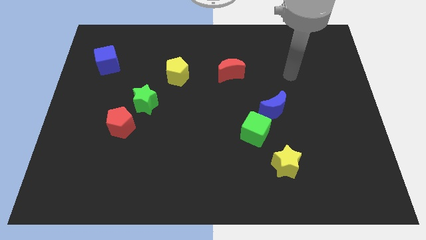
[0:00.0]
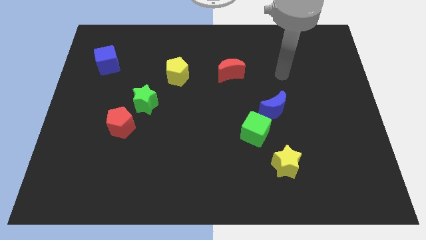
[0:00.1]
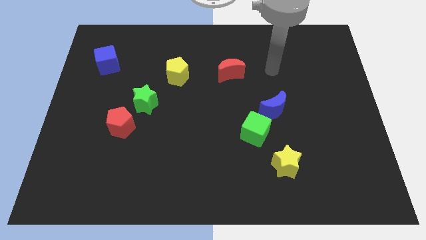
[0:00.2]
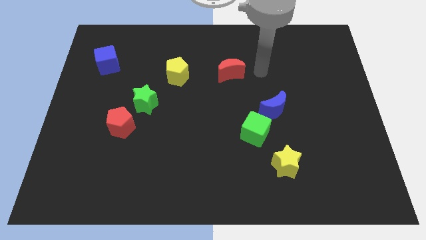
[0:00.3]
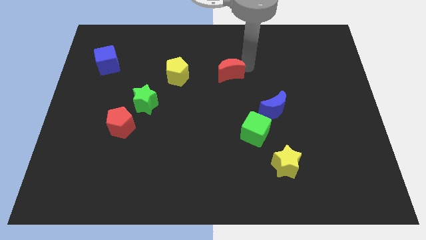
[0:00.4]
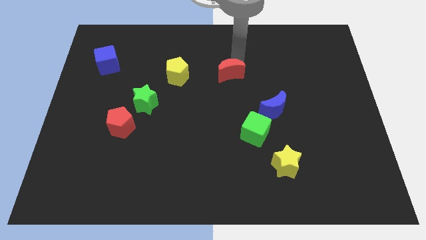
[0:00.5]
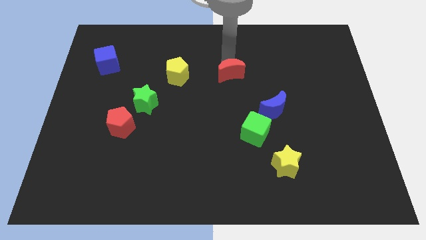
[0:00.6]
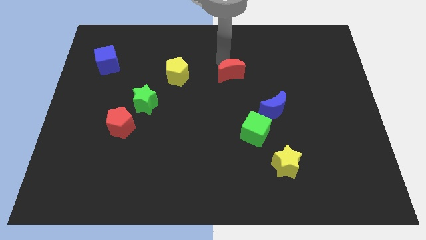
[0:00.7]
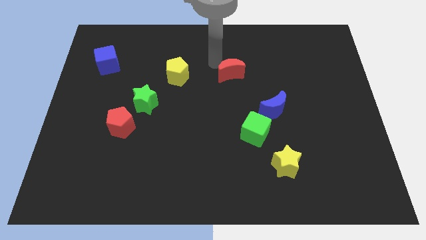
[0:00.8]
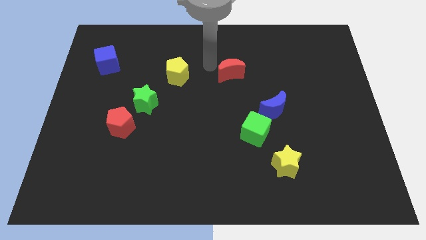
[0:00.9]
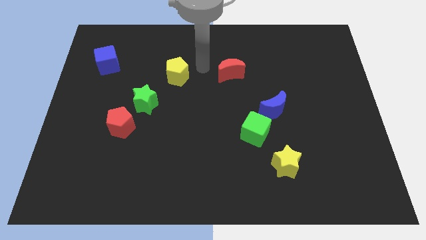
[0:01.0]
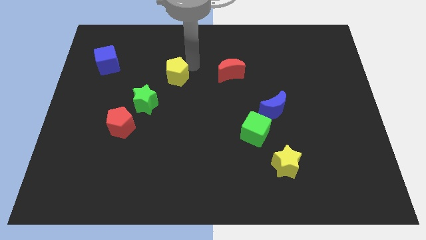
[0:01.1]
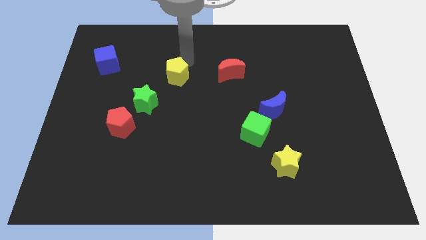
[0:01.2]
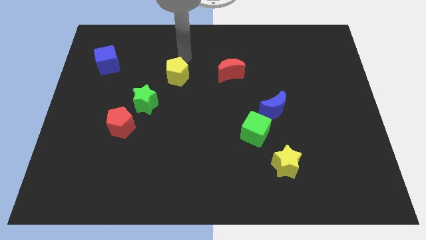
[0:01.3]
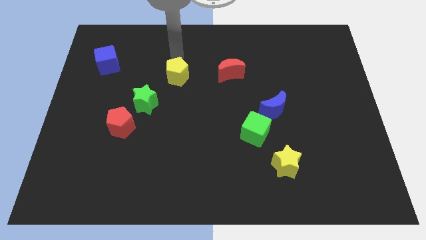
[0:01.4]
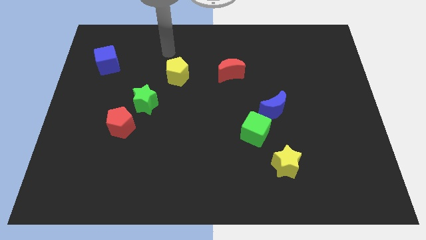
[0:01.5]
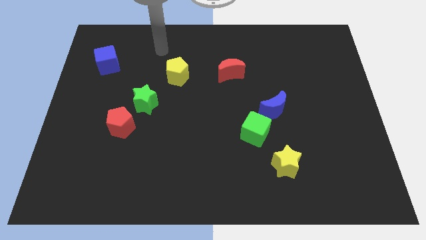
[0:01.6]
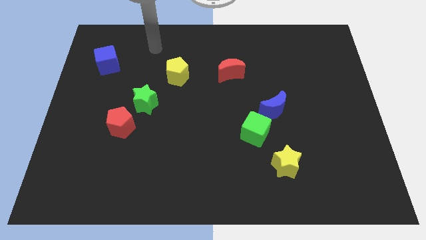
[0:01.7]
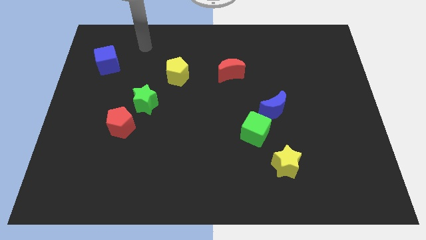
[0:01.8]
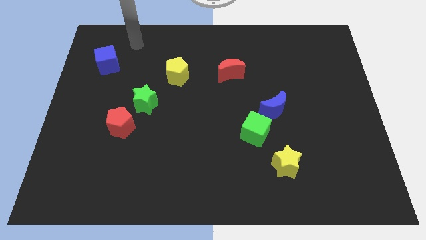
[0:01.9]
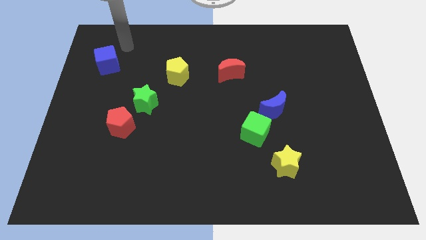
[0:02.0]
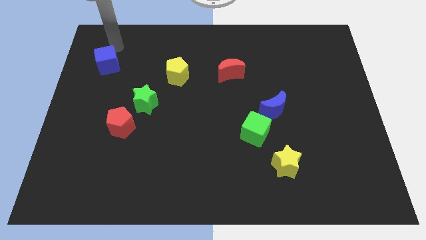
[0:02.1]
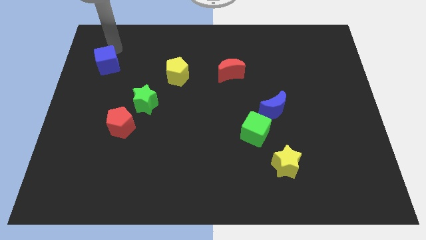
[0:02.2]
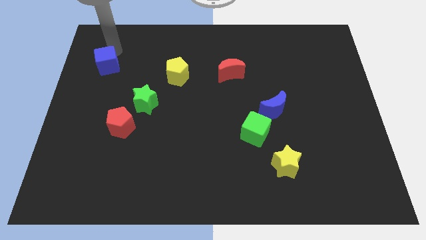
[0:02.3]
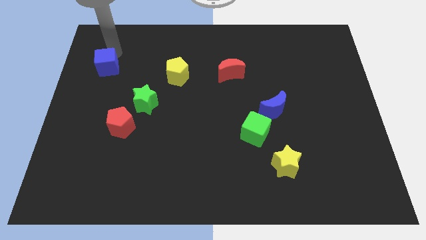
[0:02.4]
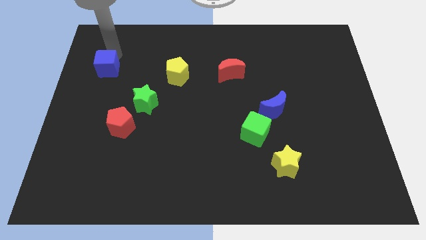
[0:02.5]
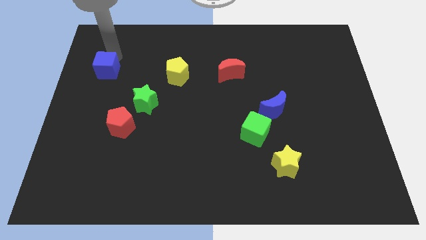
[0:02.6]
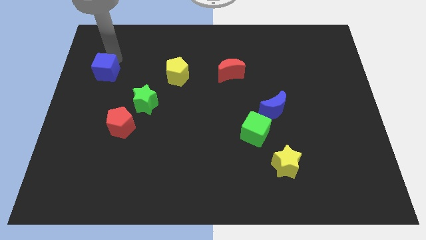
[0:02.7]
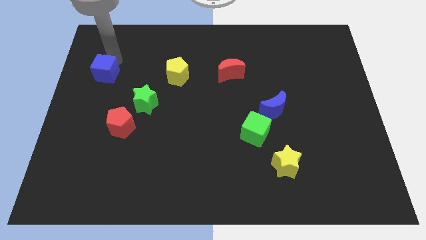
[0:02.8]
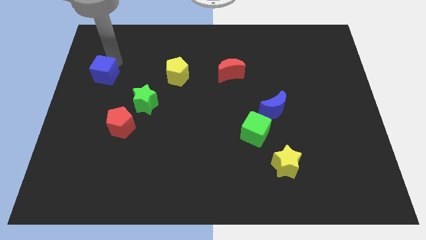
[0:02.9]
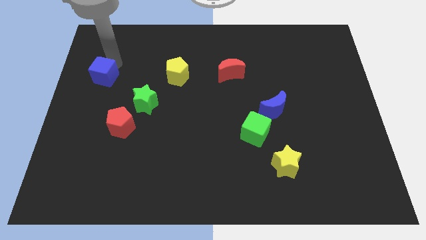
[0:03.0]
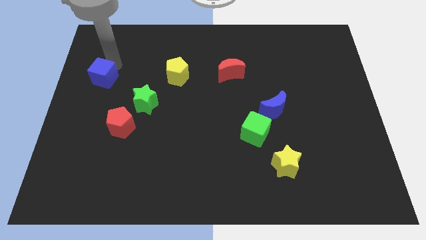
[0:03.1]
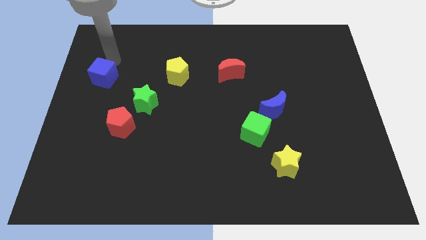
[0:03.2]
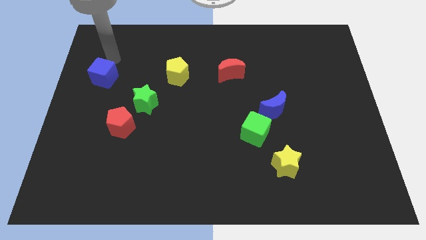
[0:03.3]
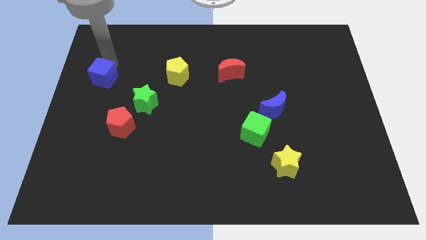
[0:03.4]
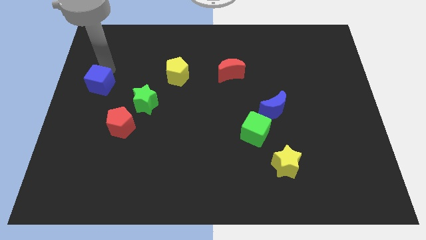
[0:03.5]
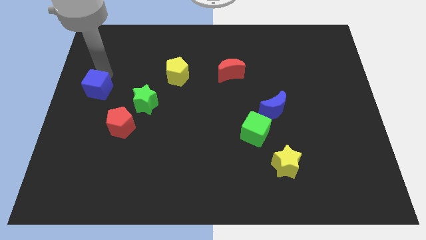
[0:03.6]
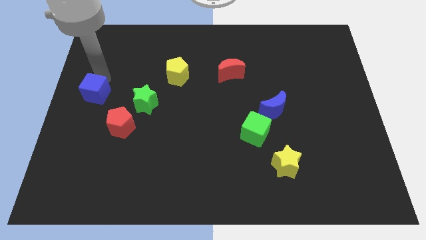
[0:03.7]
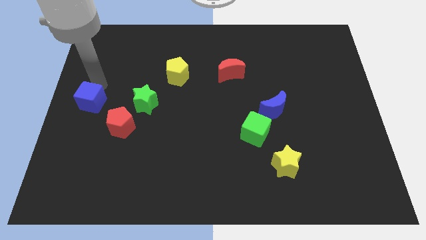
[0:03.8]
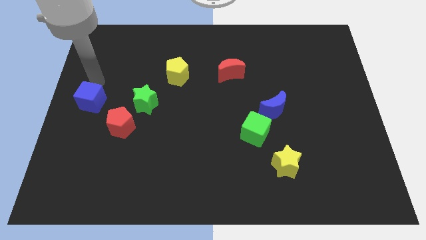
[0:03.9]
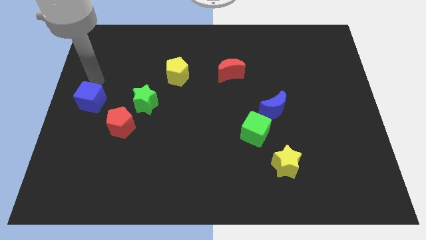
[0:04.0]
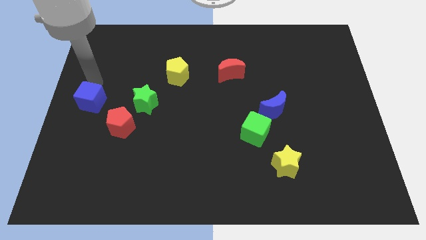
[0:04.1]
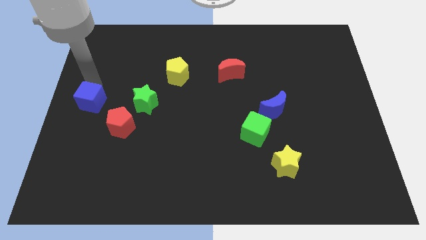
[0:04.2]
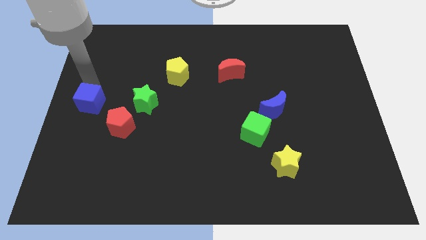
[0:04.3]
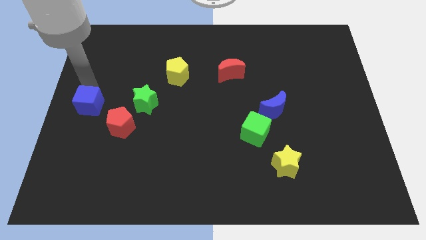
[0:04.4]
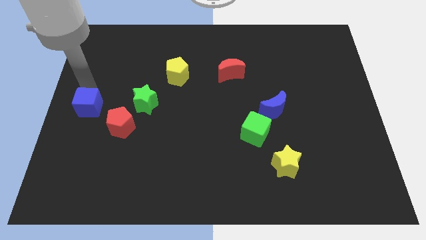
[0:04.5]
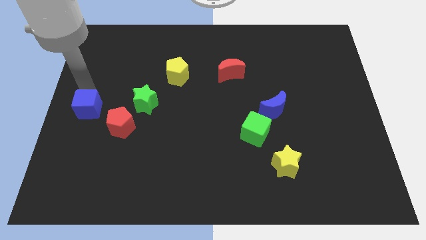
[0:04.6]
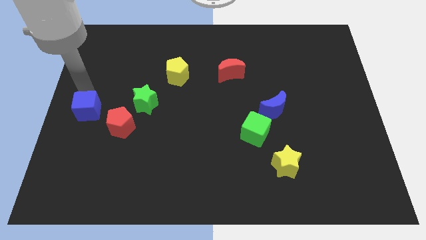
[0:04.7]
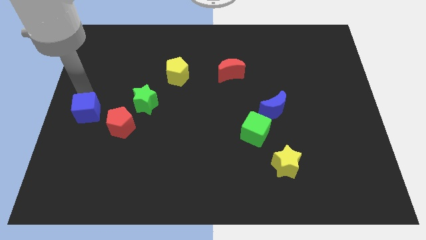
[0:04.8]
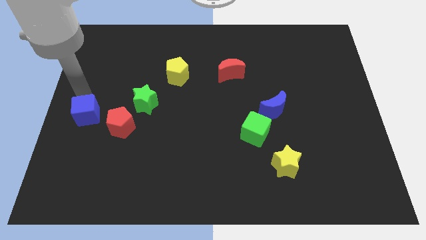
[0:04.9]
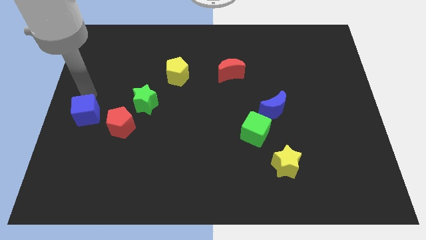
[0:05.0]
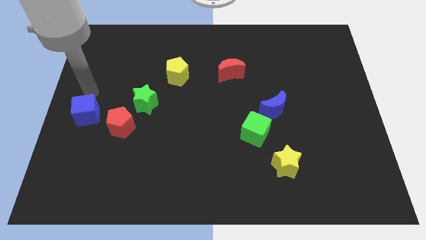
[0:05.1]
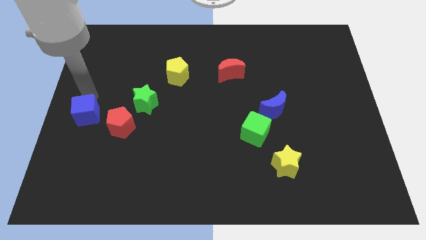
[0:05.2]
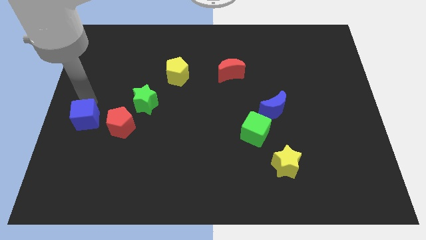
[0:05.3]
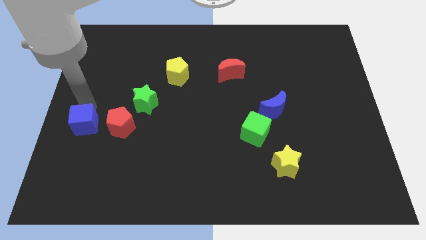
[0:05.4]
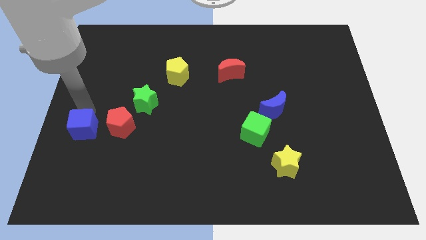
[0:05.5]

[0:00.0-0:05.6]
push the blue cube down

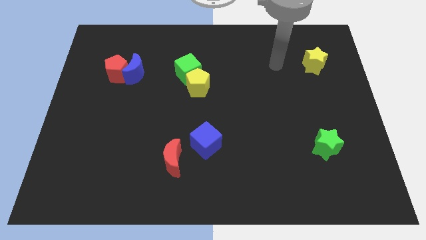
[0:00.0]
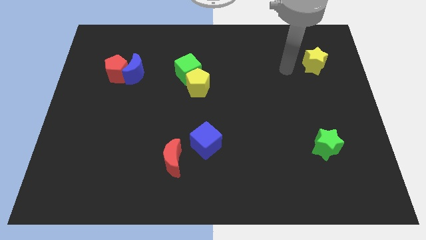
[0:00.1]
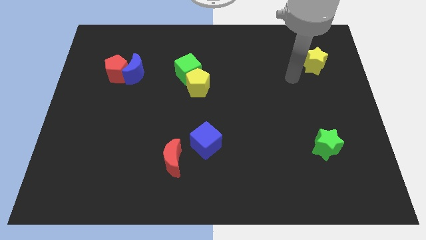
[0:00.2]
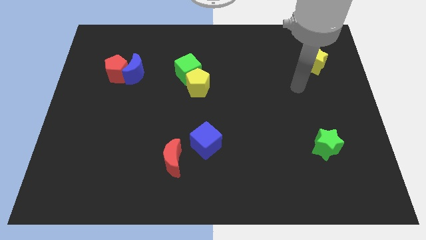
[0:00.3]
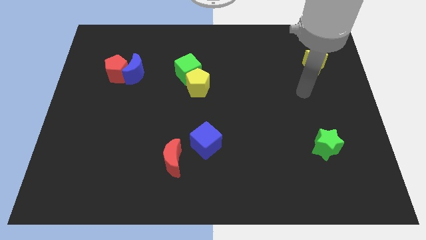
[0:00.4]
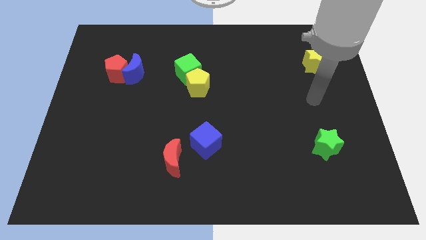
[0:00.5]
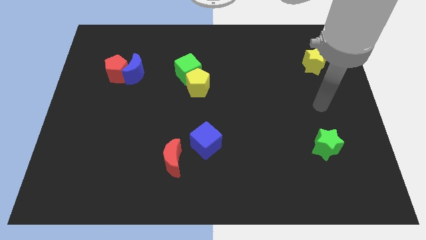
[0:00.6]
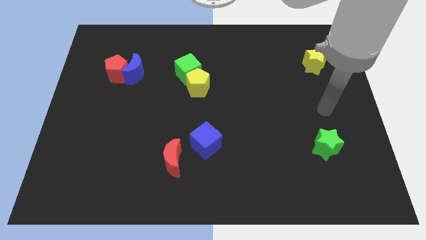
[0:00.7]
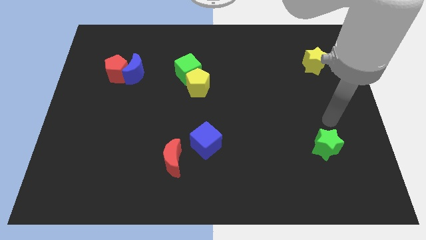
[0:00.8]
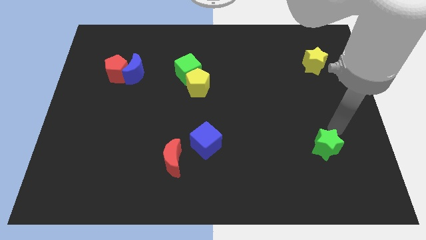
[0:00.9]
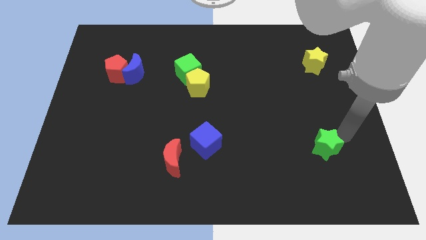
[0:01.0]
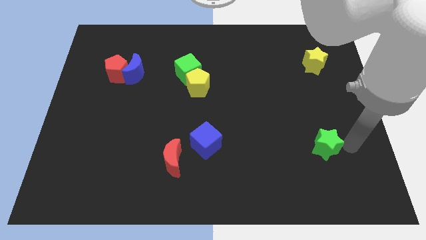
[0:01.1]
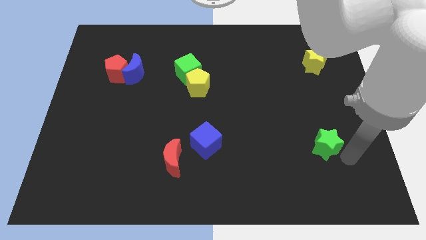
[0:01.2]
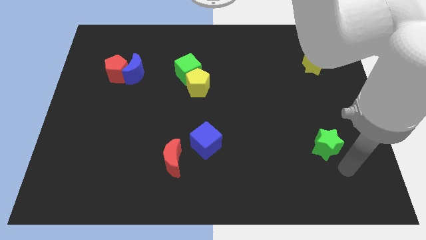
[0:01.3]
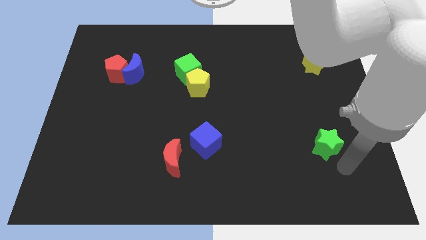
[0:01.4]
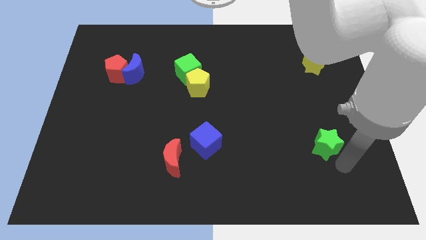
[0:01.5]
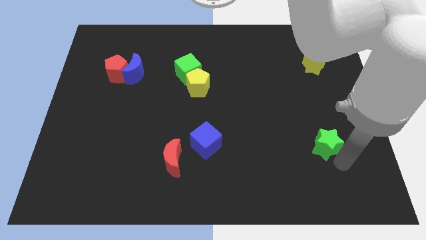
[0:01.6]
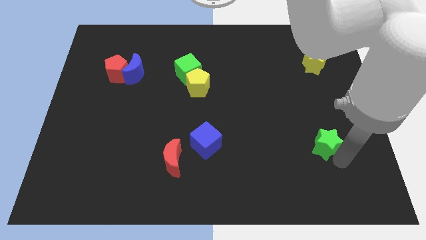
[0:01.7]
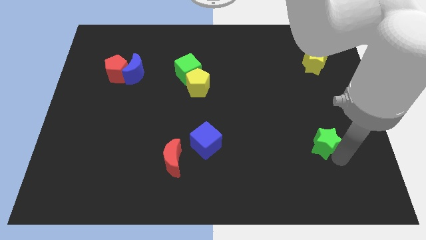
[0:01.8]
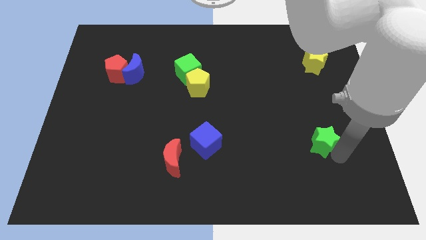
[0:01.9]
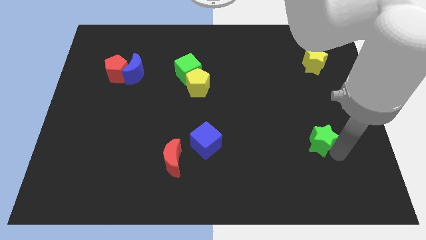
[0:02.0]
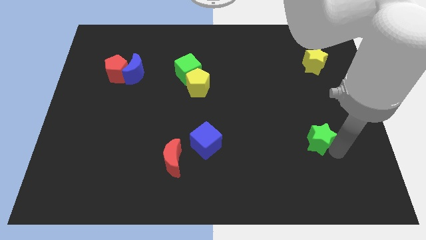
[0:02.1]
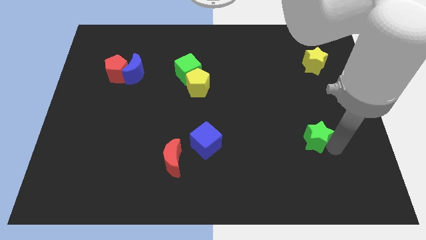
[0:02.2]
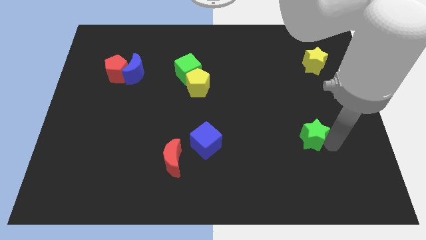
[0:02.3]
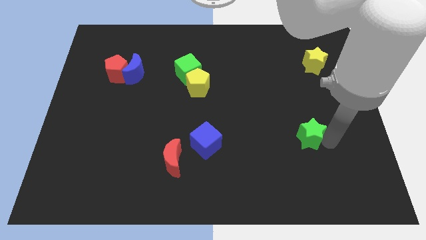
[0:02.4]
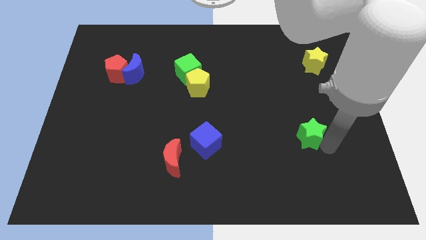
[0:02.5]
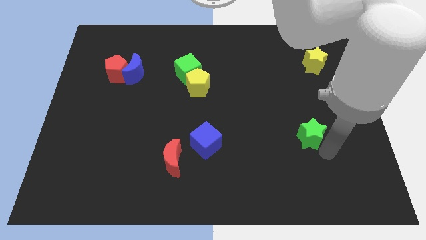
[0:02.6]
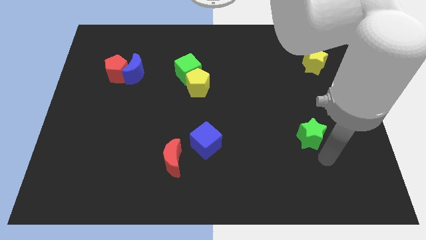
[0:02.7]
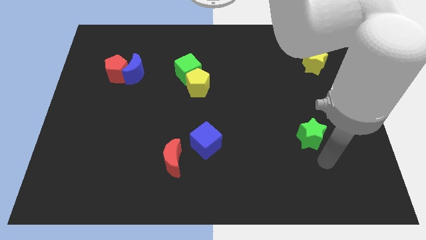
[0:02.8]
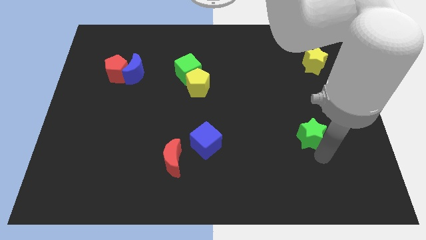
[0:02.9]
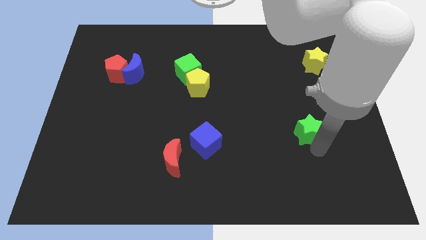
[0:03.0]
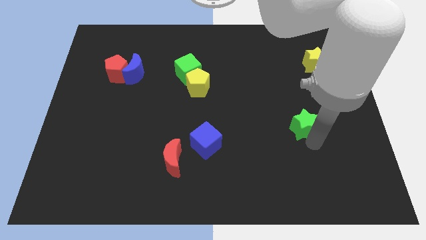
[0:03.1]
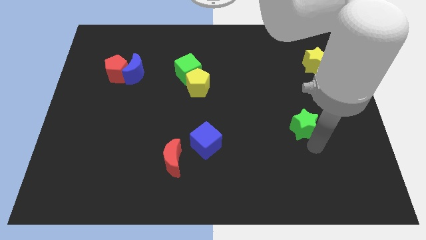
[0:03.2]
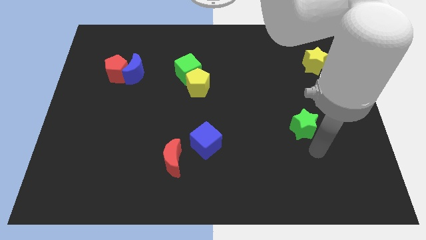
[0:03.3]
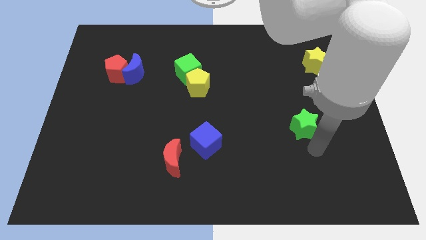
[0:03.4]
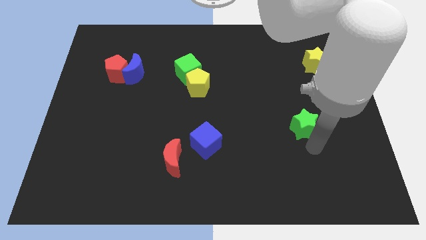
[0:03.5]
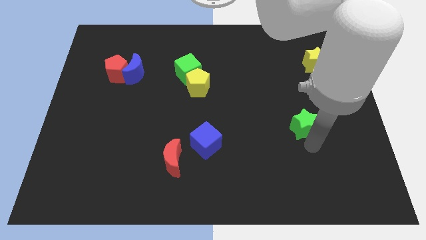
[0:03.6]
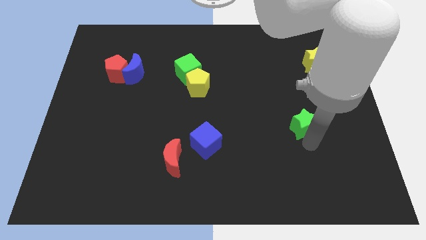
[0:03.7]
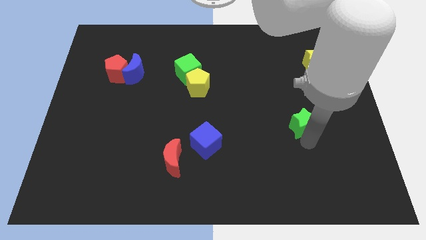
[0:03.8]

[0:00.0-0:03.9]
move the green star upwards and left a bit
